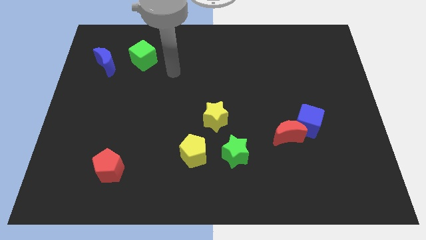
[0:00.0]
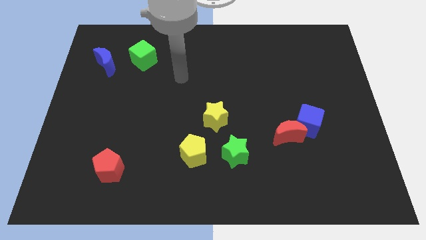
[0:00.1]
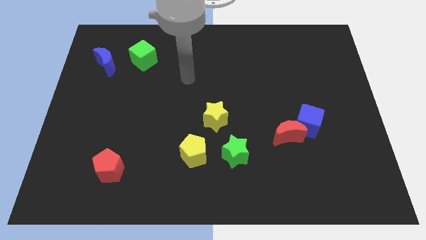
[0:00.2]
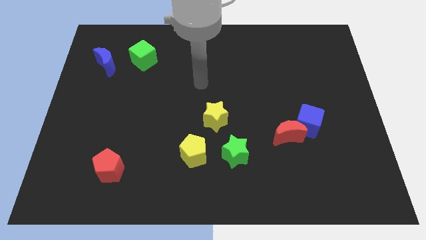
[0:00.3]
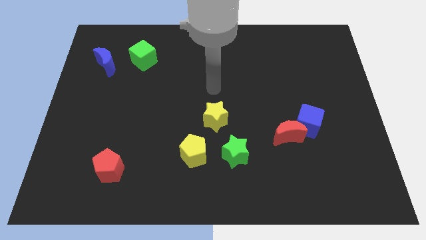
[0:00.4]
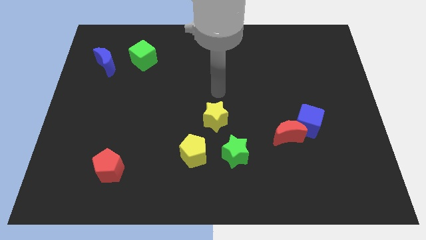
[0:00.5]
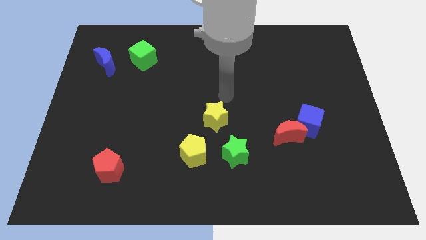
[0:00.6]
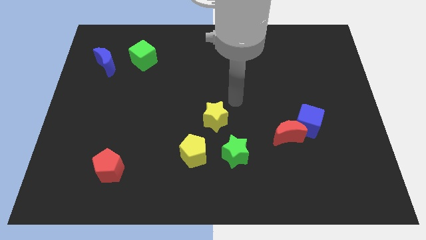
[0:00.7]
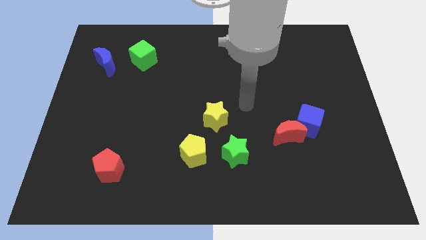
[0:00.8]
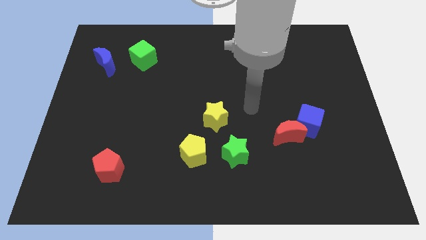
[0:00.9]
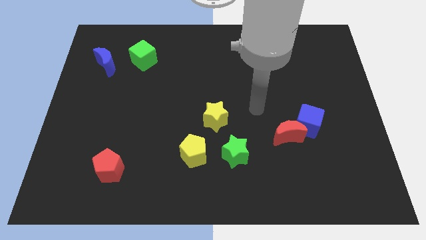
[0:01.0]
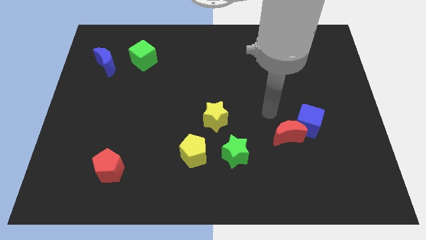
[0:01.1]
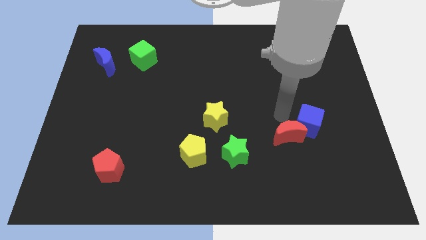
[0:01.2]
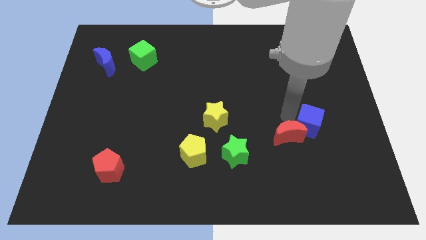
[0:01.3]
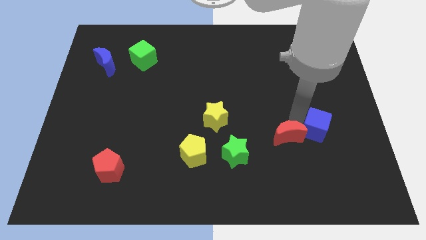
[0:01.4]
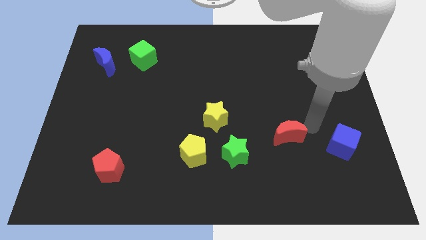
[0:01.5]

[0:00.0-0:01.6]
separate the red moon from the blue cube

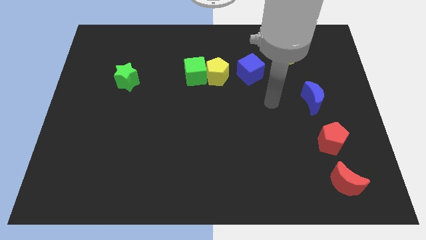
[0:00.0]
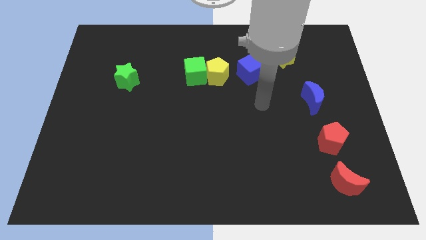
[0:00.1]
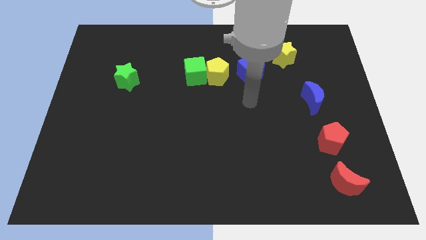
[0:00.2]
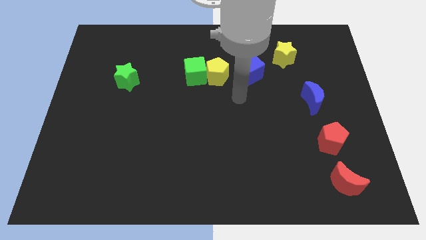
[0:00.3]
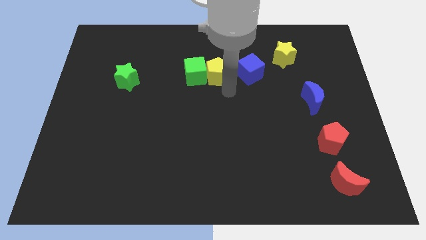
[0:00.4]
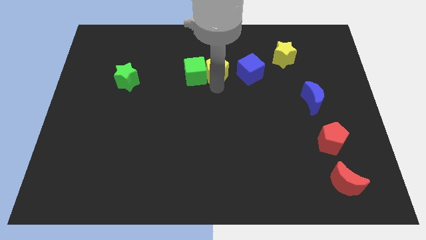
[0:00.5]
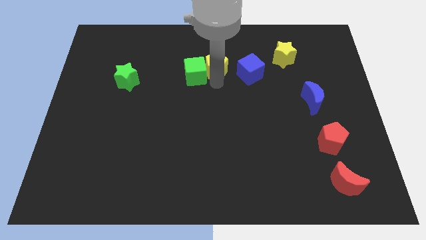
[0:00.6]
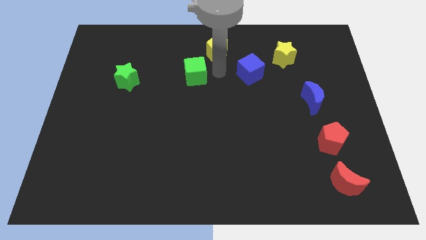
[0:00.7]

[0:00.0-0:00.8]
pull the green cube apart from the yellow pentagon

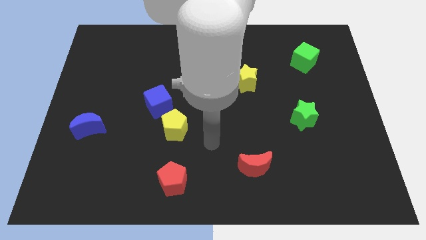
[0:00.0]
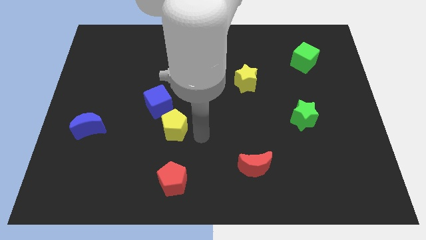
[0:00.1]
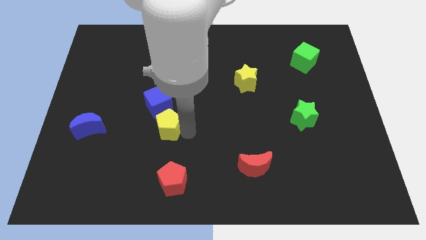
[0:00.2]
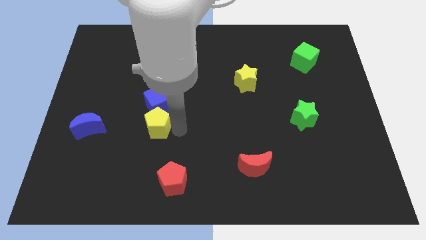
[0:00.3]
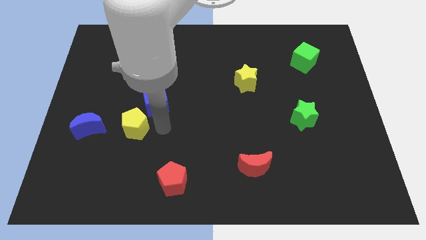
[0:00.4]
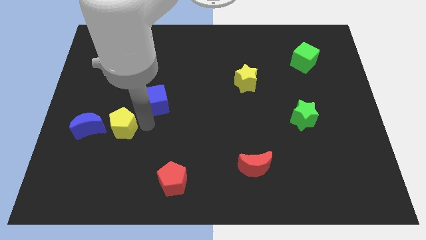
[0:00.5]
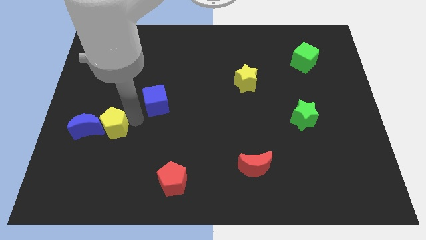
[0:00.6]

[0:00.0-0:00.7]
separate the blue cube from the yellow pentagon

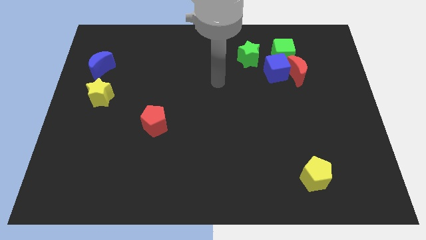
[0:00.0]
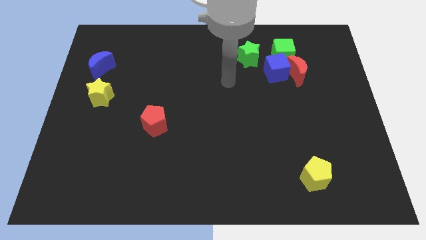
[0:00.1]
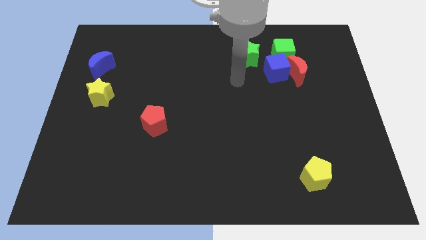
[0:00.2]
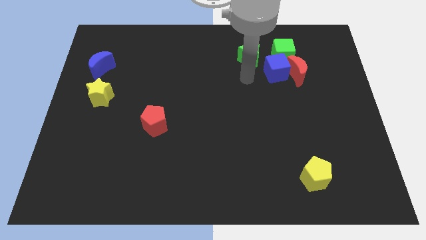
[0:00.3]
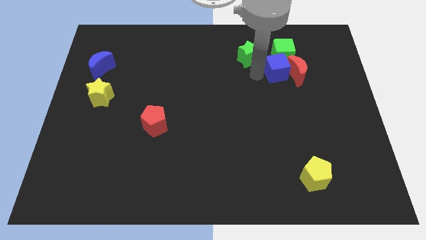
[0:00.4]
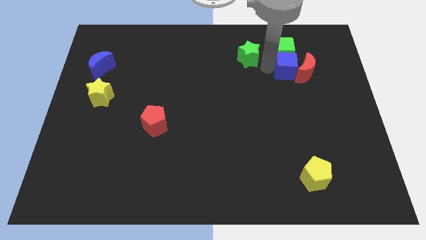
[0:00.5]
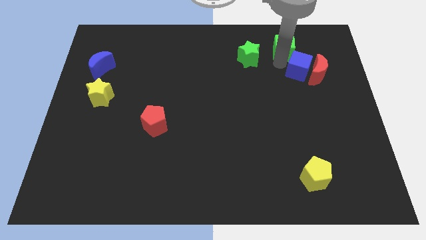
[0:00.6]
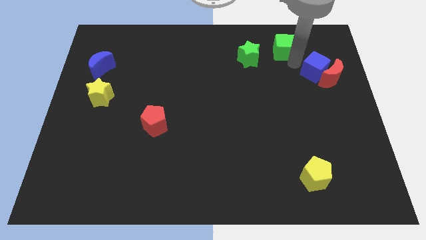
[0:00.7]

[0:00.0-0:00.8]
separate the red moon from the blue cube and green cube

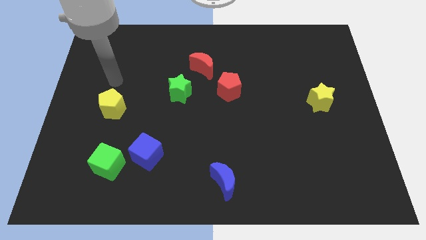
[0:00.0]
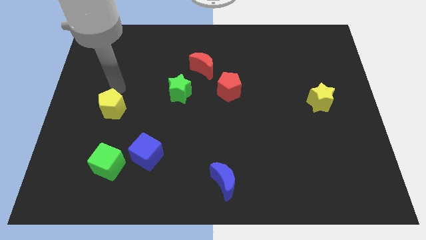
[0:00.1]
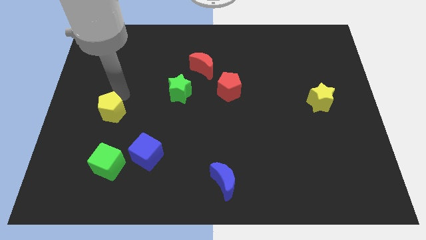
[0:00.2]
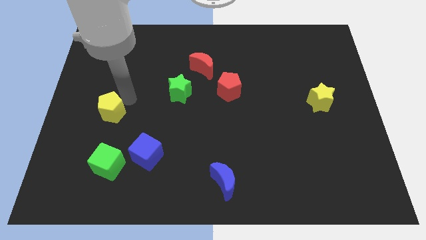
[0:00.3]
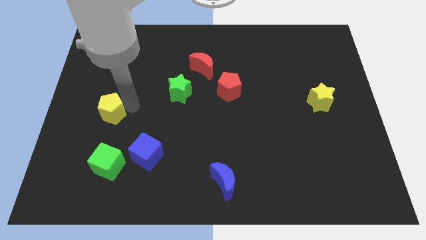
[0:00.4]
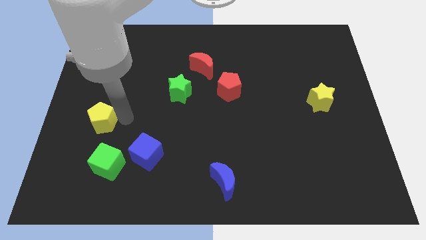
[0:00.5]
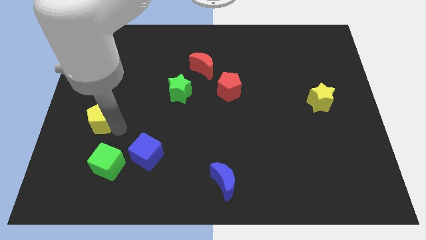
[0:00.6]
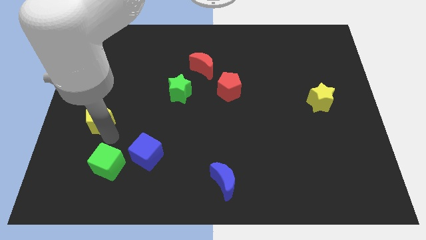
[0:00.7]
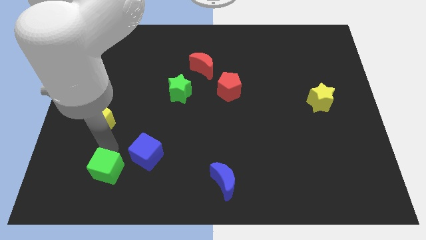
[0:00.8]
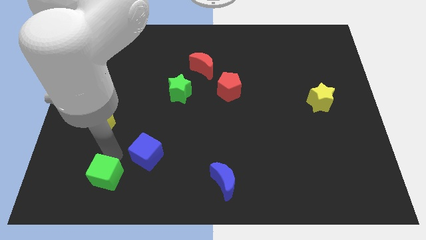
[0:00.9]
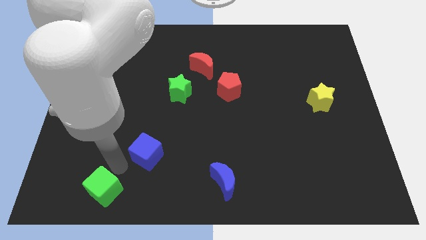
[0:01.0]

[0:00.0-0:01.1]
separate the blue cube from the green cube

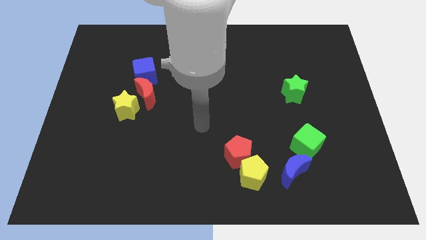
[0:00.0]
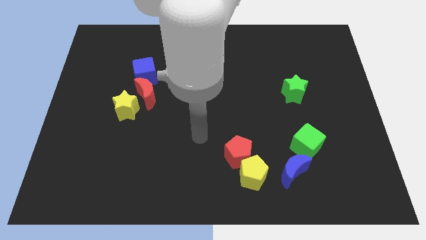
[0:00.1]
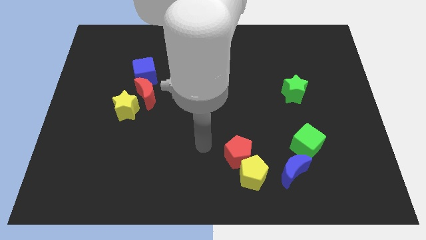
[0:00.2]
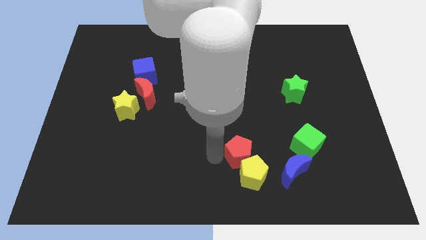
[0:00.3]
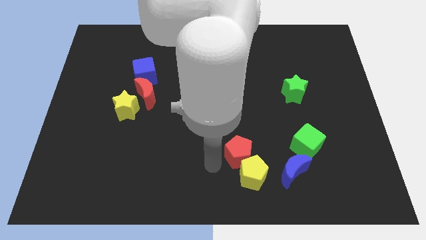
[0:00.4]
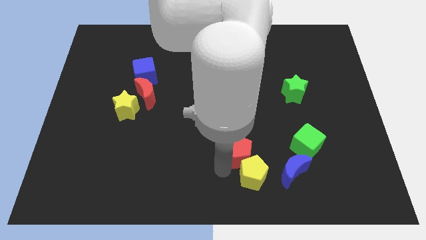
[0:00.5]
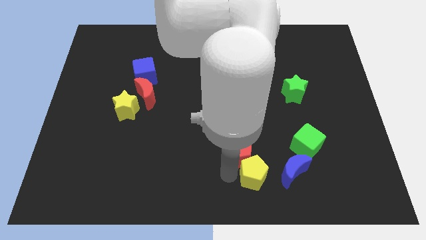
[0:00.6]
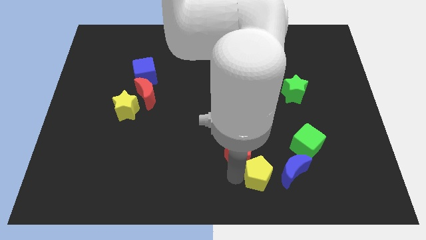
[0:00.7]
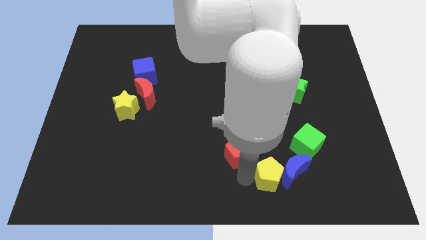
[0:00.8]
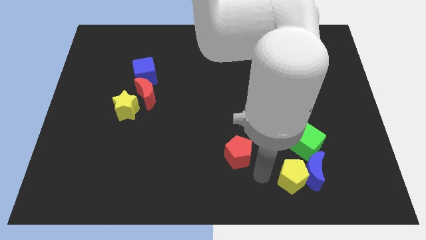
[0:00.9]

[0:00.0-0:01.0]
pull the red pentagon apart from the yellow pentagon

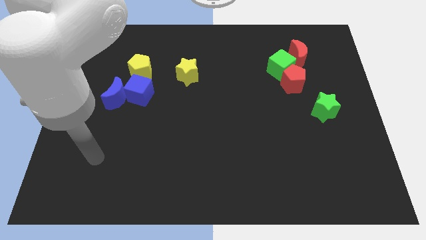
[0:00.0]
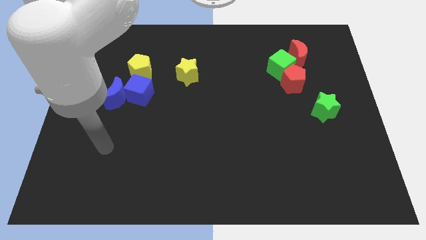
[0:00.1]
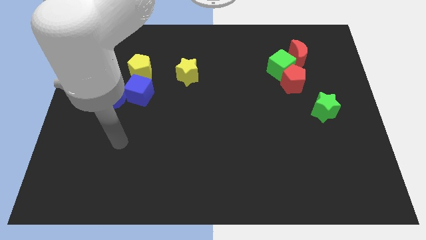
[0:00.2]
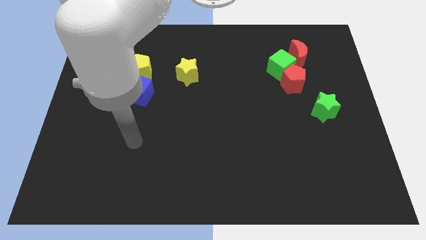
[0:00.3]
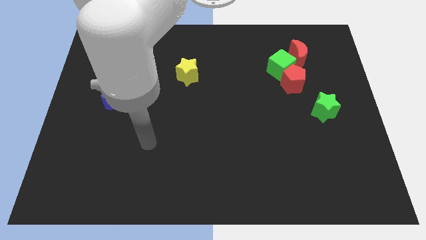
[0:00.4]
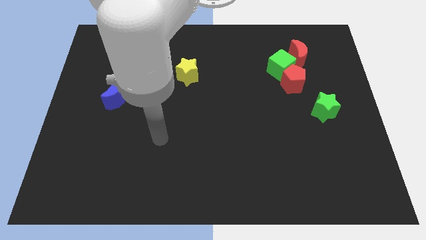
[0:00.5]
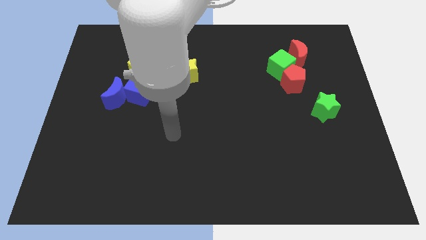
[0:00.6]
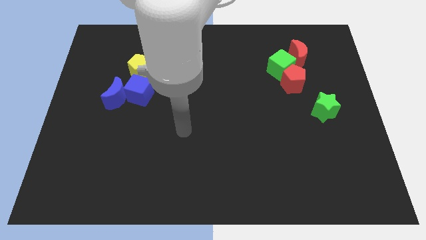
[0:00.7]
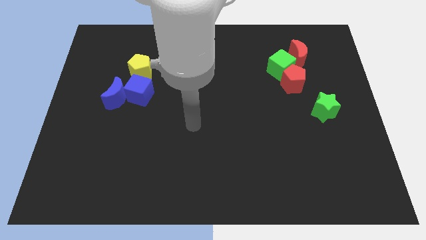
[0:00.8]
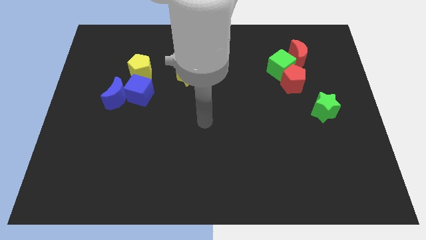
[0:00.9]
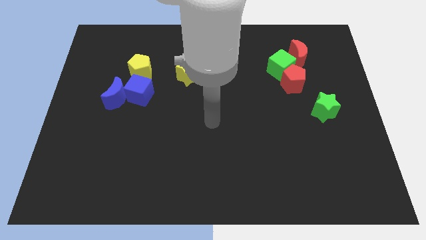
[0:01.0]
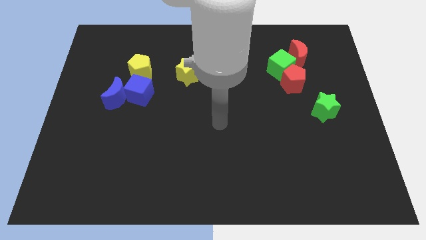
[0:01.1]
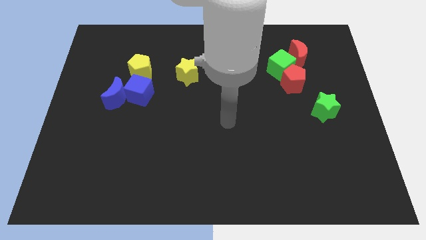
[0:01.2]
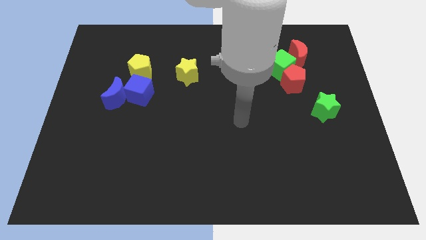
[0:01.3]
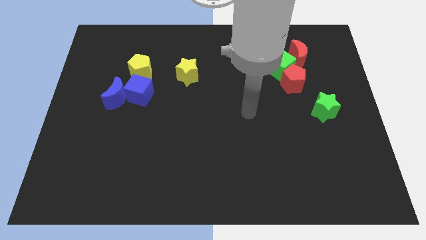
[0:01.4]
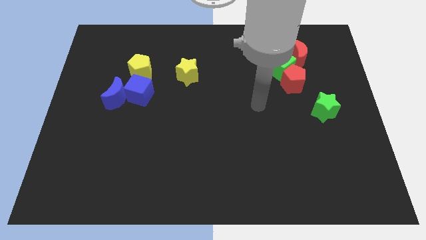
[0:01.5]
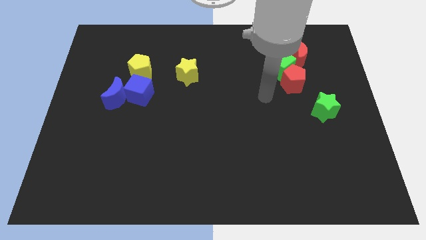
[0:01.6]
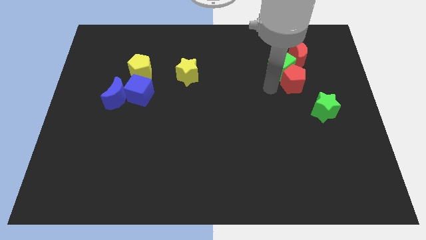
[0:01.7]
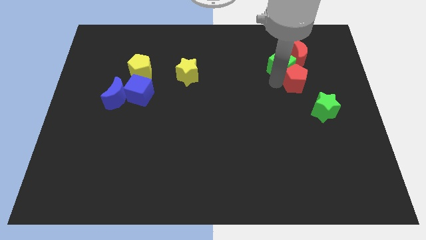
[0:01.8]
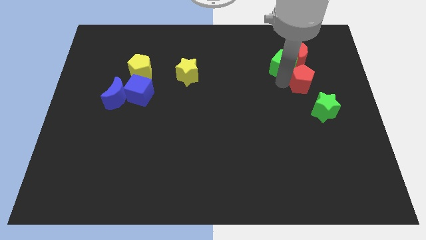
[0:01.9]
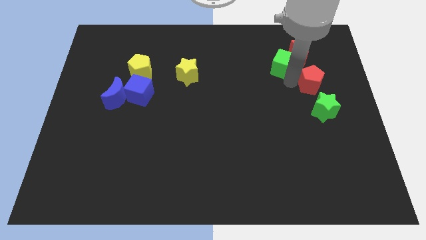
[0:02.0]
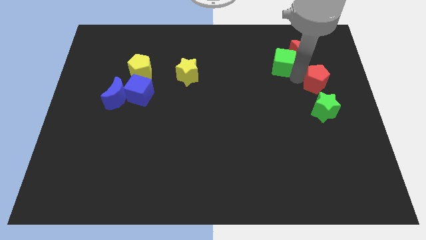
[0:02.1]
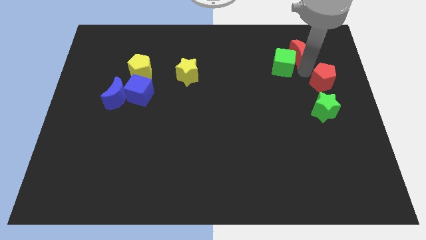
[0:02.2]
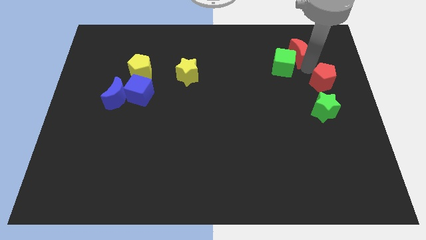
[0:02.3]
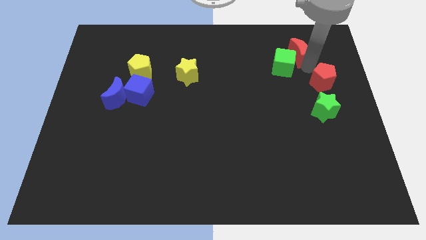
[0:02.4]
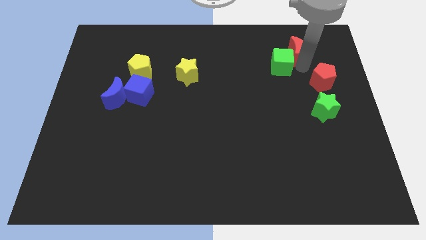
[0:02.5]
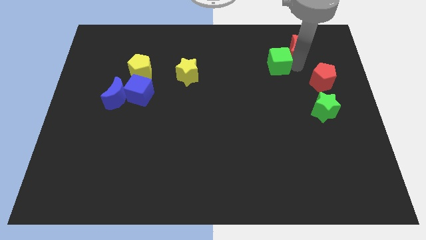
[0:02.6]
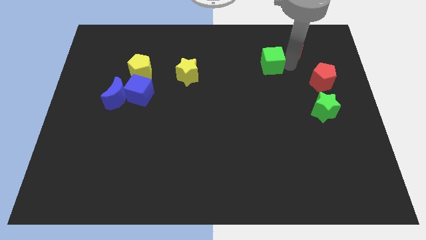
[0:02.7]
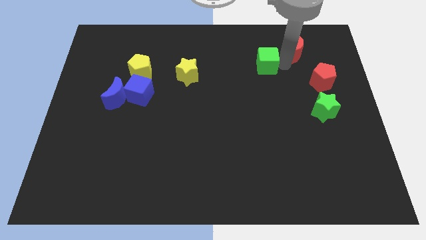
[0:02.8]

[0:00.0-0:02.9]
separate the green cube from the red pentagon and red moon

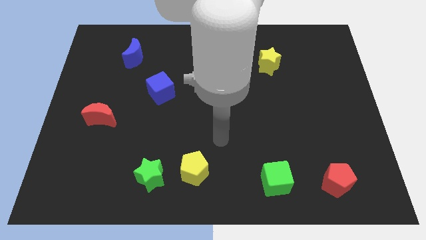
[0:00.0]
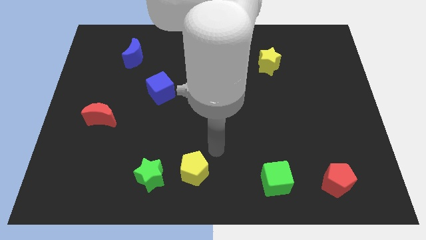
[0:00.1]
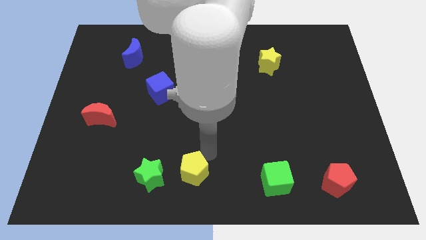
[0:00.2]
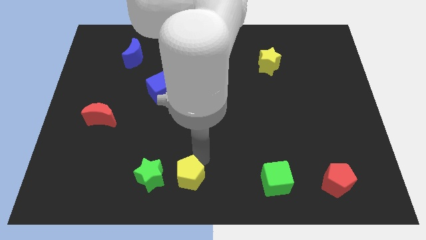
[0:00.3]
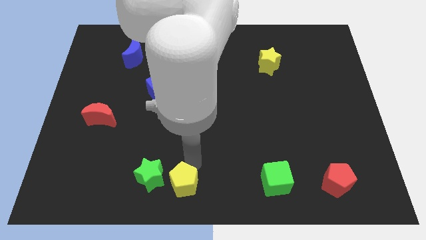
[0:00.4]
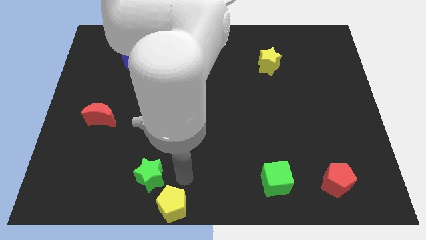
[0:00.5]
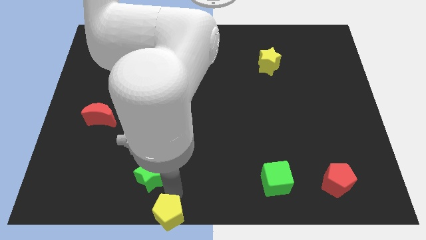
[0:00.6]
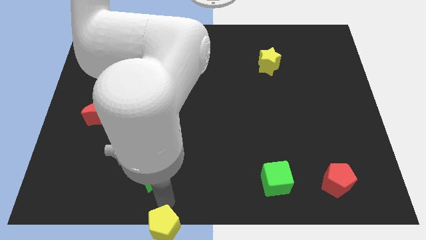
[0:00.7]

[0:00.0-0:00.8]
move the green star away from the yellow pentagon
